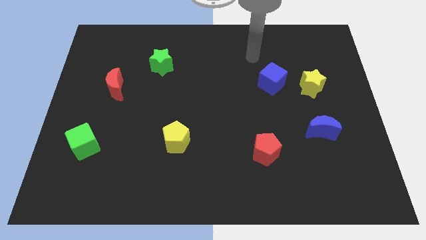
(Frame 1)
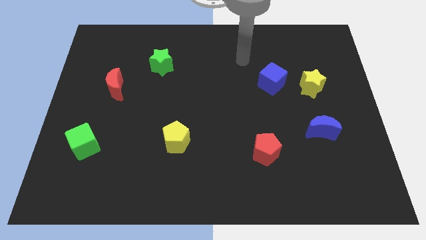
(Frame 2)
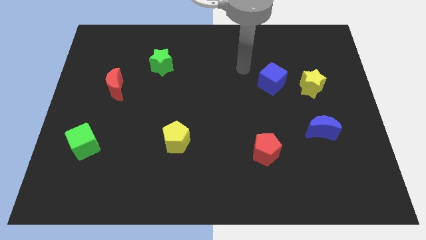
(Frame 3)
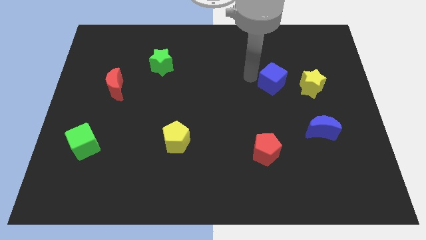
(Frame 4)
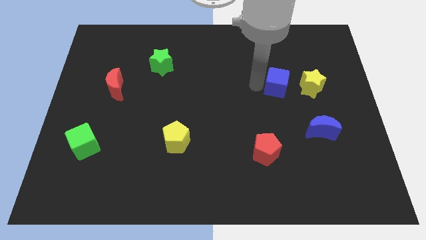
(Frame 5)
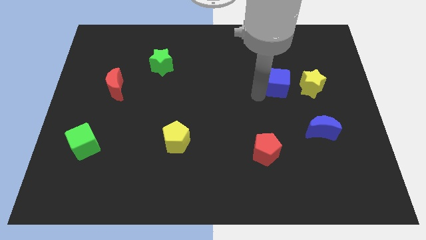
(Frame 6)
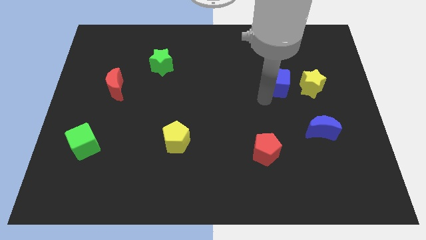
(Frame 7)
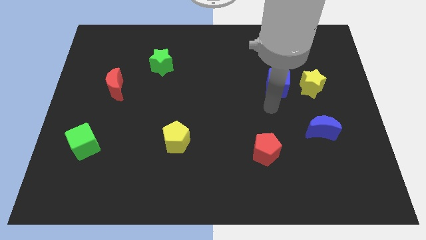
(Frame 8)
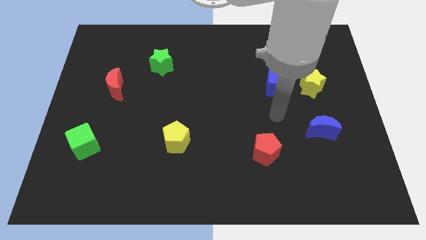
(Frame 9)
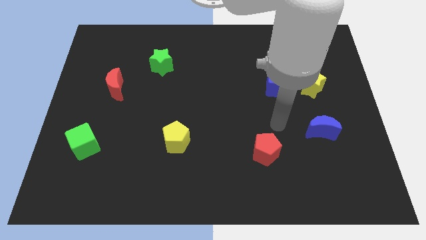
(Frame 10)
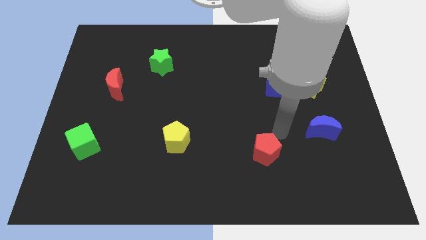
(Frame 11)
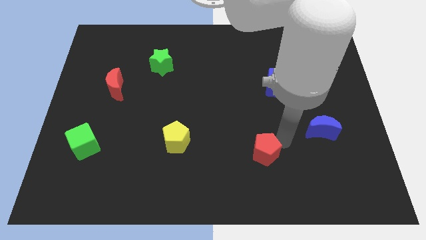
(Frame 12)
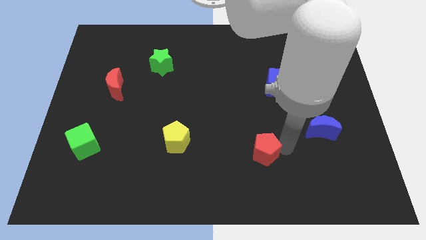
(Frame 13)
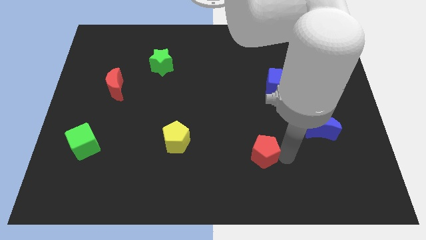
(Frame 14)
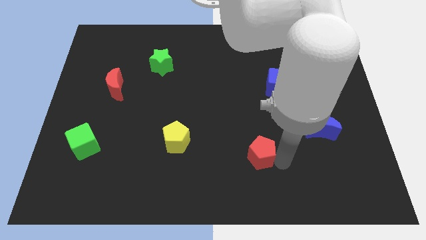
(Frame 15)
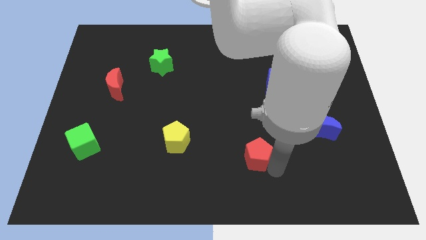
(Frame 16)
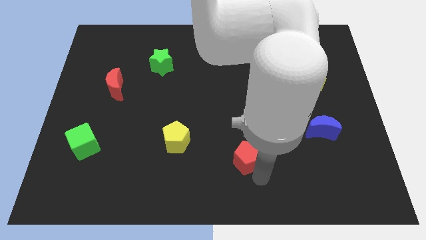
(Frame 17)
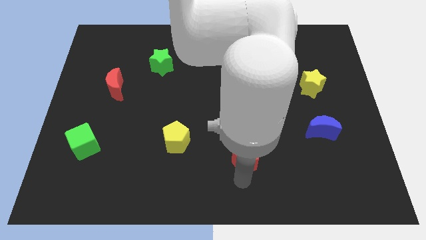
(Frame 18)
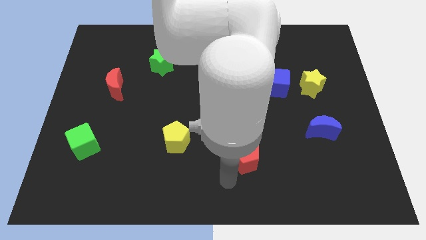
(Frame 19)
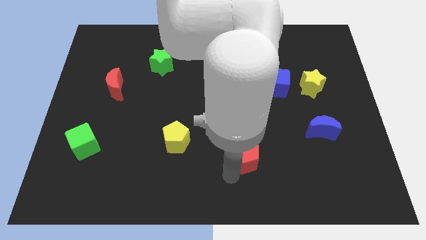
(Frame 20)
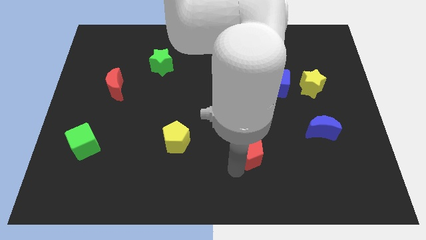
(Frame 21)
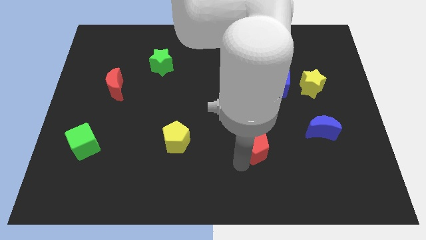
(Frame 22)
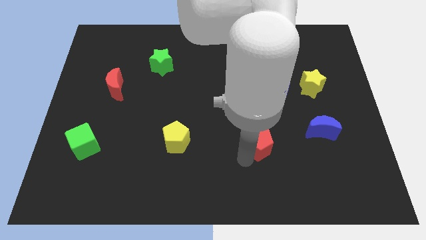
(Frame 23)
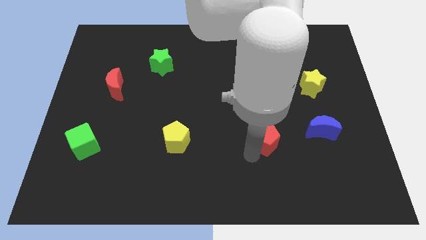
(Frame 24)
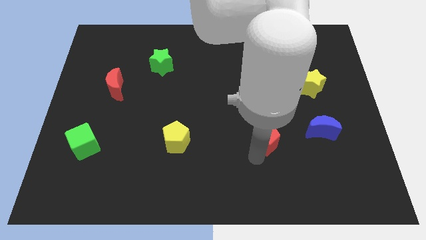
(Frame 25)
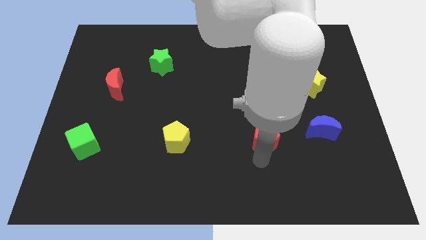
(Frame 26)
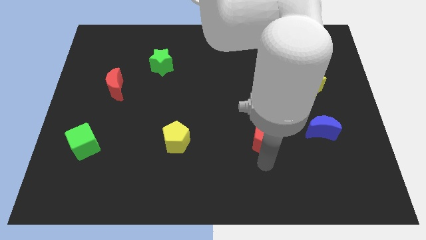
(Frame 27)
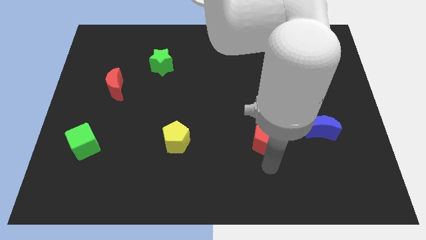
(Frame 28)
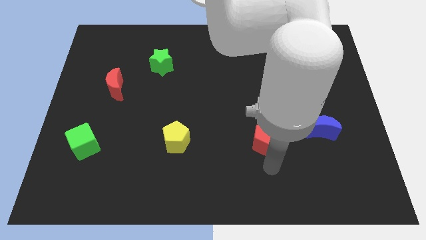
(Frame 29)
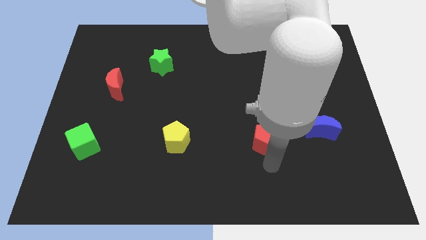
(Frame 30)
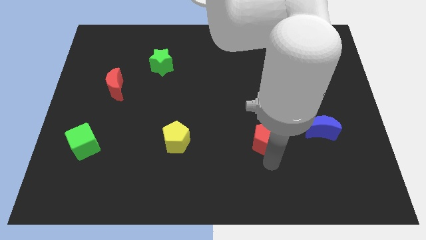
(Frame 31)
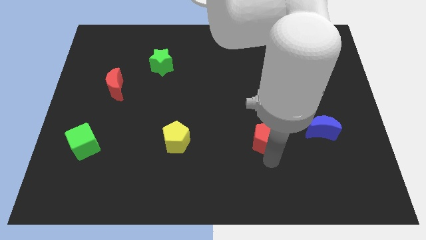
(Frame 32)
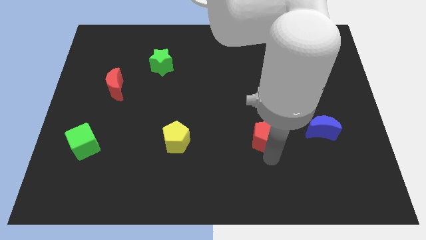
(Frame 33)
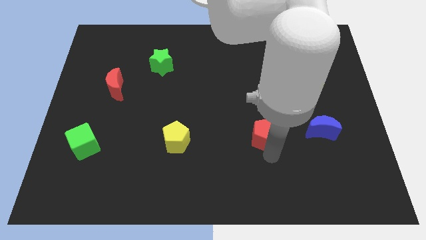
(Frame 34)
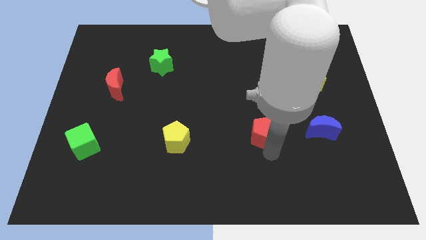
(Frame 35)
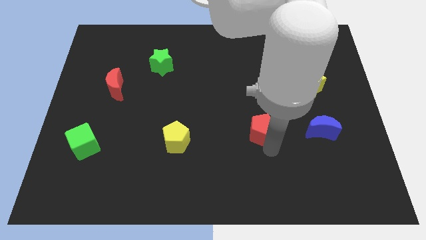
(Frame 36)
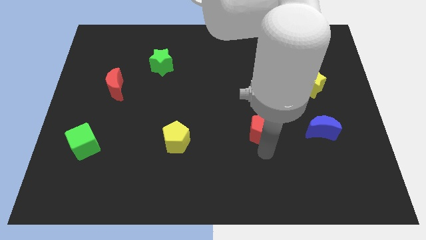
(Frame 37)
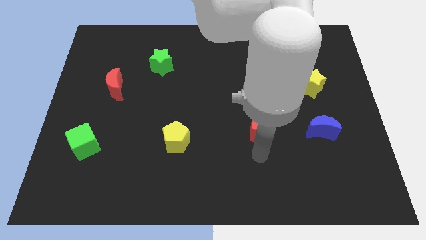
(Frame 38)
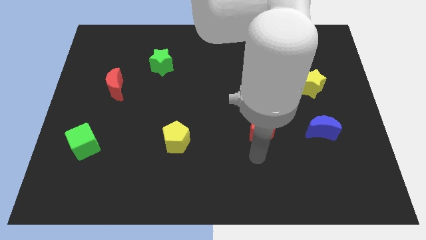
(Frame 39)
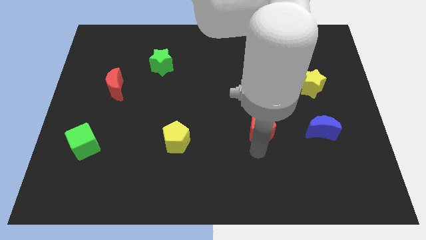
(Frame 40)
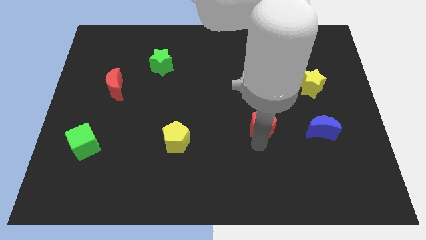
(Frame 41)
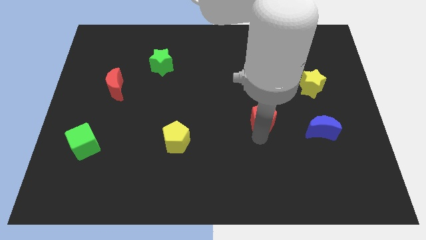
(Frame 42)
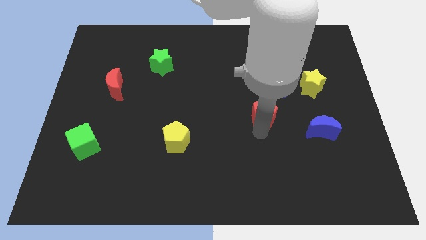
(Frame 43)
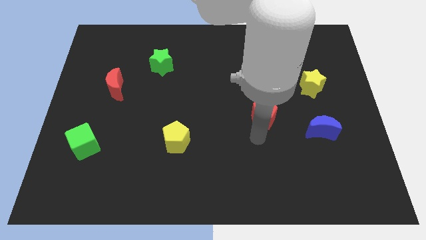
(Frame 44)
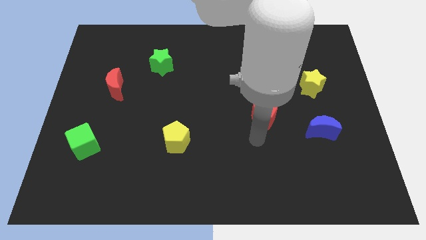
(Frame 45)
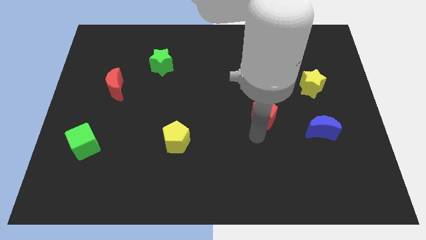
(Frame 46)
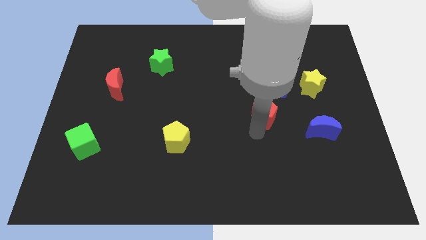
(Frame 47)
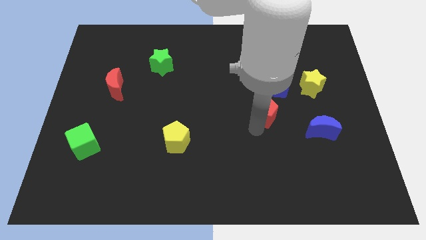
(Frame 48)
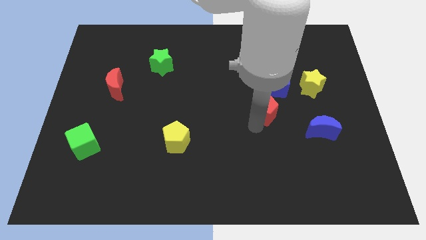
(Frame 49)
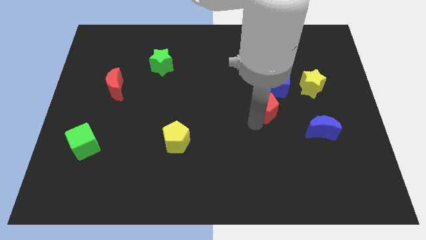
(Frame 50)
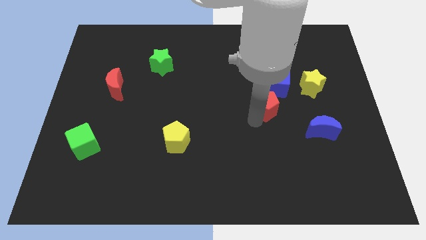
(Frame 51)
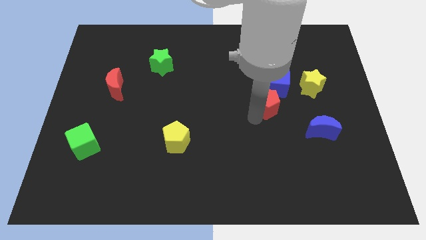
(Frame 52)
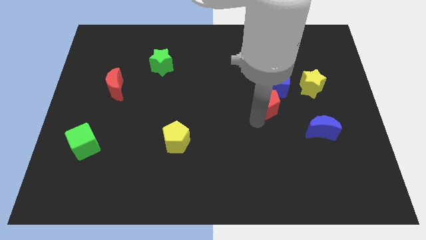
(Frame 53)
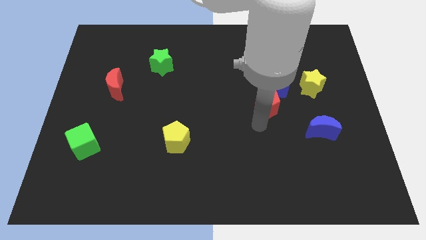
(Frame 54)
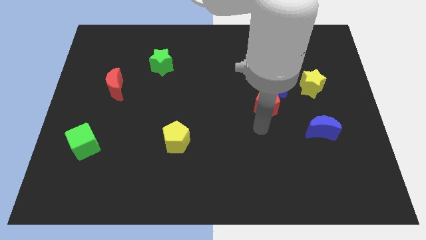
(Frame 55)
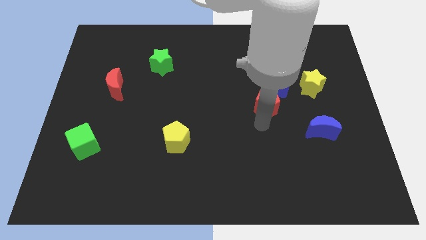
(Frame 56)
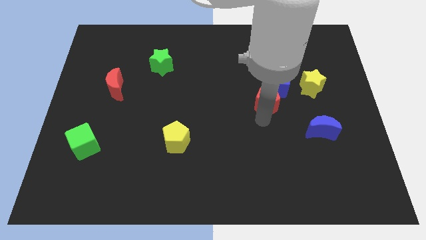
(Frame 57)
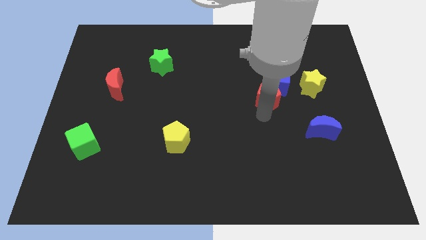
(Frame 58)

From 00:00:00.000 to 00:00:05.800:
move the red pentagon towards the blue cube

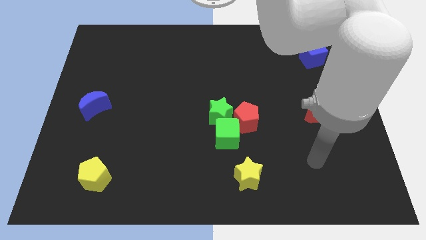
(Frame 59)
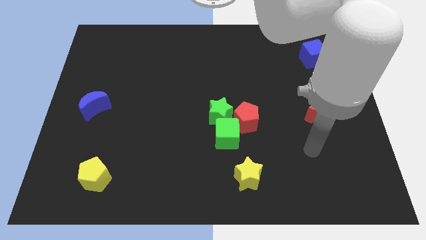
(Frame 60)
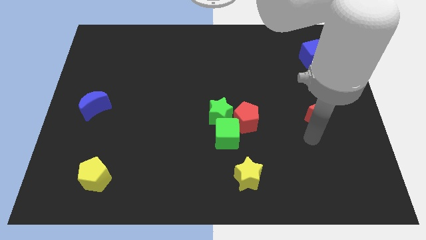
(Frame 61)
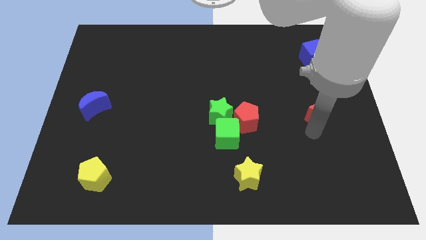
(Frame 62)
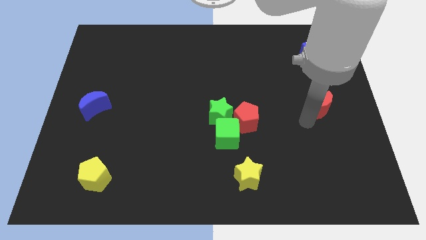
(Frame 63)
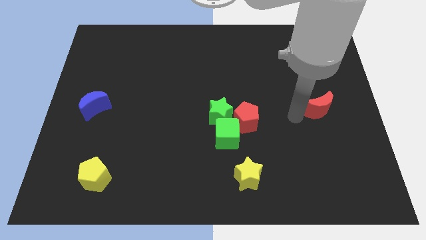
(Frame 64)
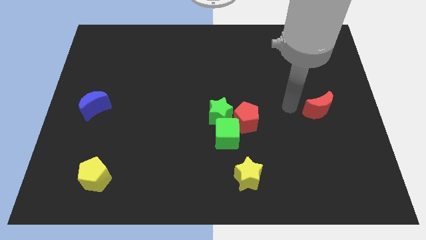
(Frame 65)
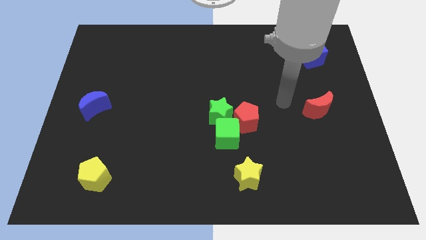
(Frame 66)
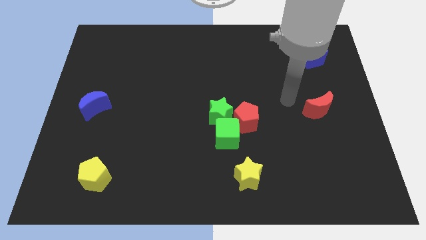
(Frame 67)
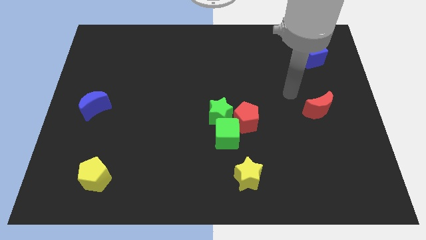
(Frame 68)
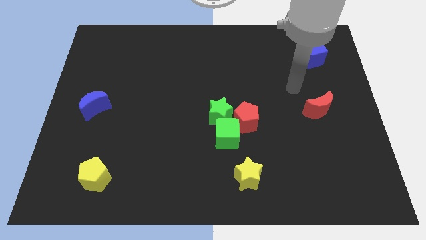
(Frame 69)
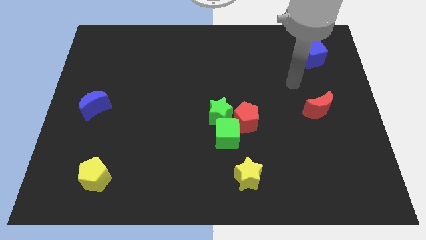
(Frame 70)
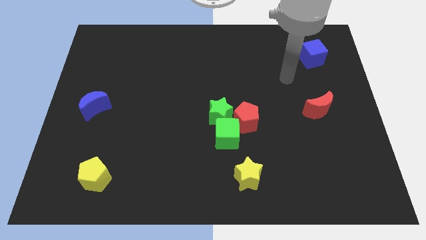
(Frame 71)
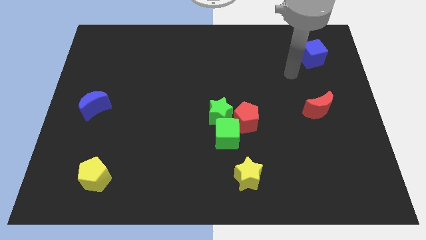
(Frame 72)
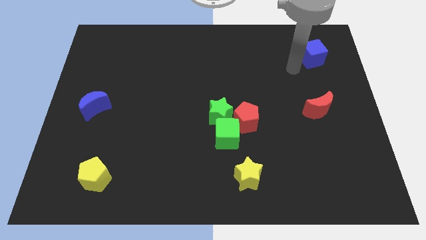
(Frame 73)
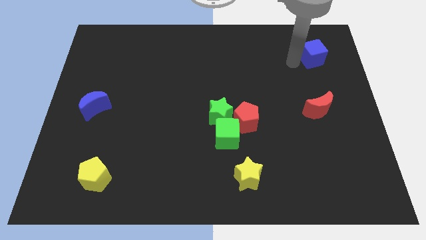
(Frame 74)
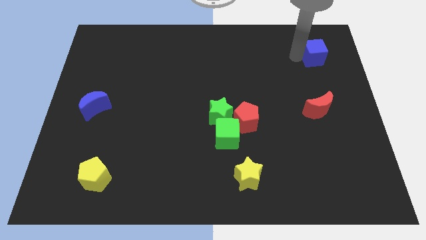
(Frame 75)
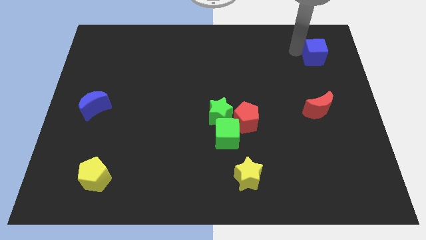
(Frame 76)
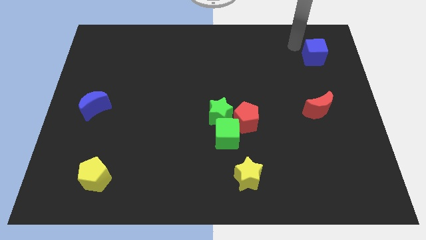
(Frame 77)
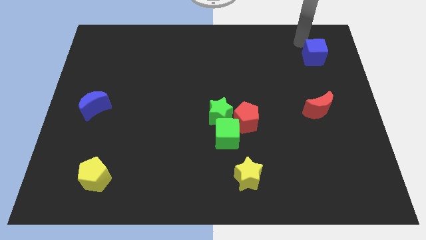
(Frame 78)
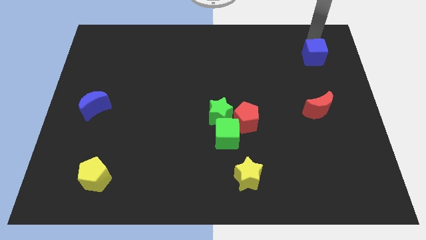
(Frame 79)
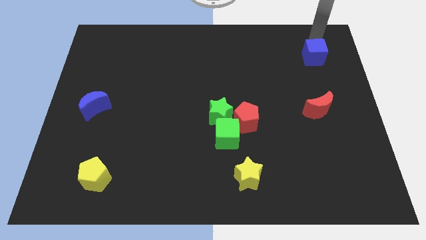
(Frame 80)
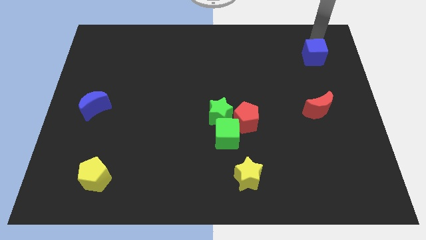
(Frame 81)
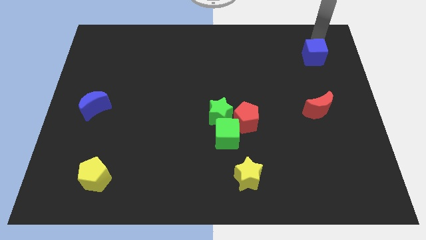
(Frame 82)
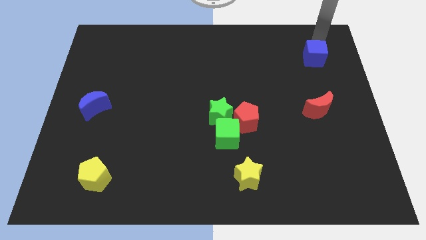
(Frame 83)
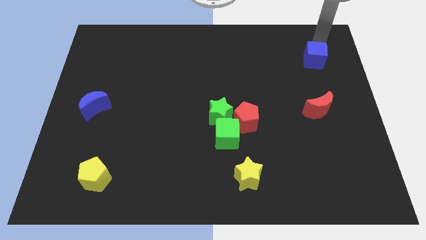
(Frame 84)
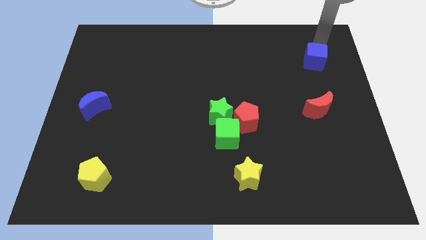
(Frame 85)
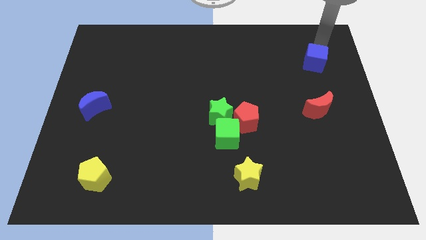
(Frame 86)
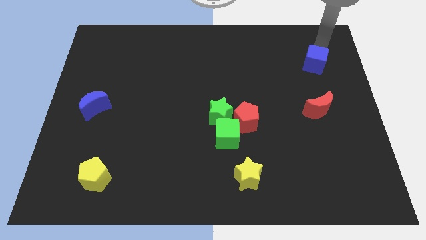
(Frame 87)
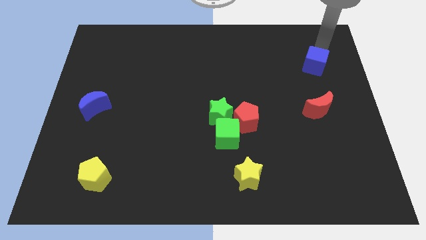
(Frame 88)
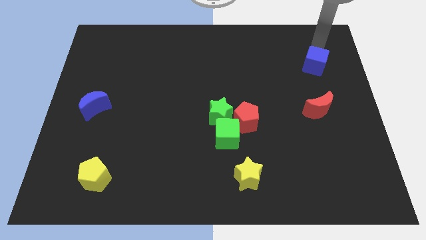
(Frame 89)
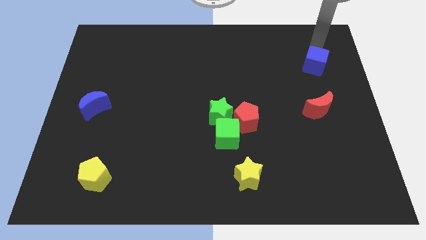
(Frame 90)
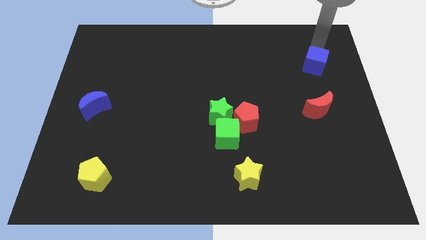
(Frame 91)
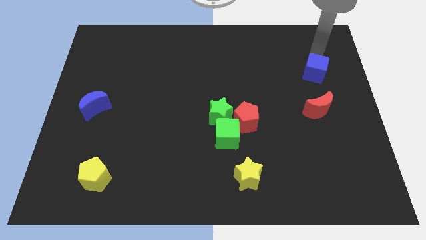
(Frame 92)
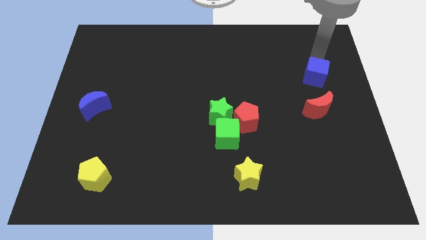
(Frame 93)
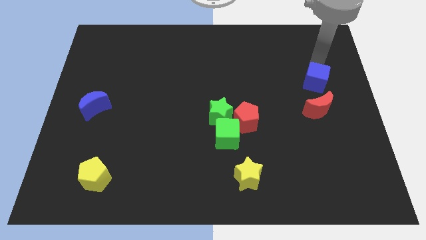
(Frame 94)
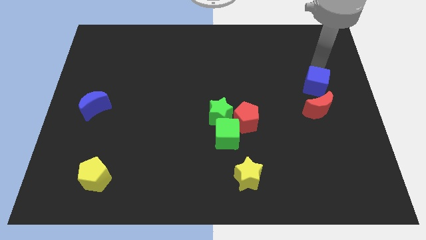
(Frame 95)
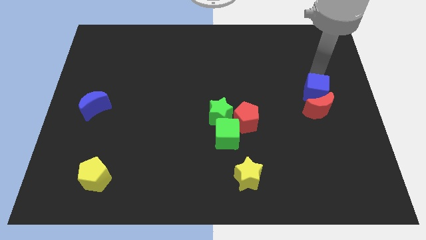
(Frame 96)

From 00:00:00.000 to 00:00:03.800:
move the blue cube to the red moon
